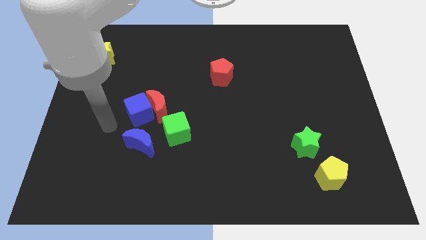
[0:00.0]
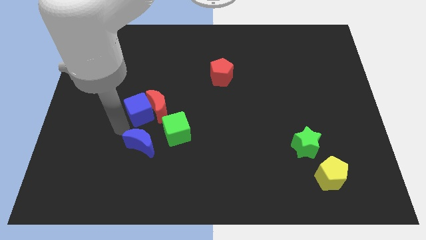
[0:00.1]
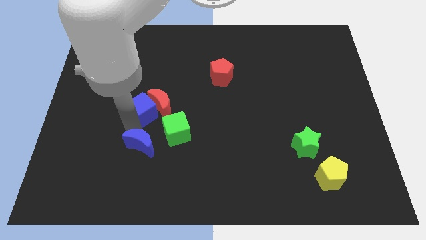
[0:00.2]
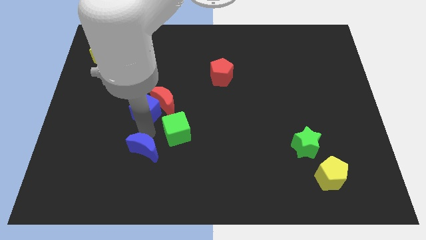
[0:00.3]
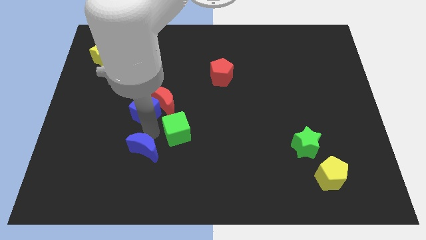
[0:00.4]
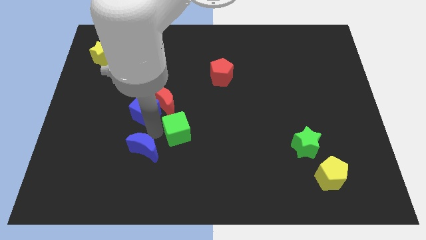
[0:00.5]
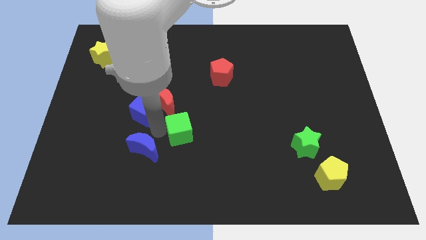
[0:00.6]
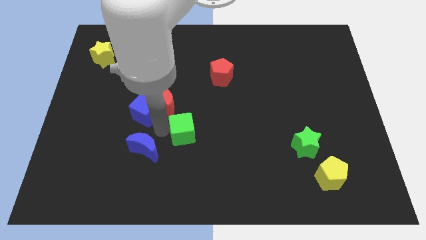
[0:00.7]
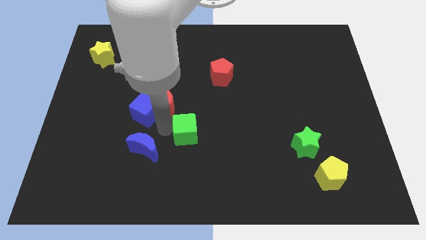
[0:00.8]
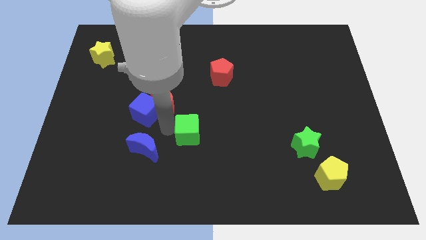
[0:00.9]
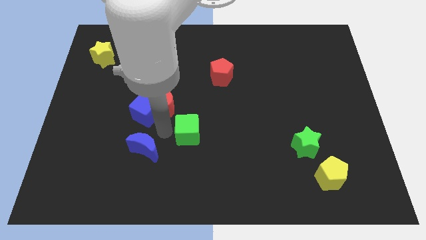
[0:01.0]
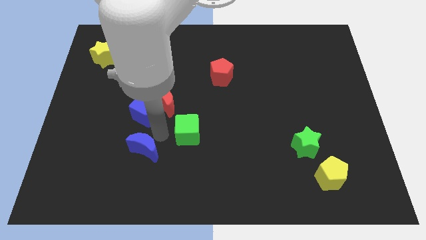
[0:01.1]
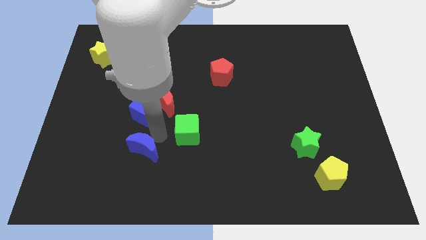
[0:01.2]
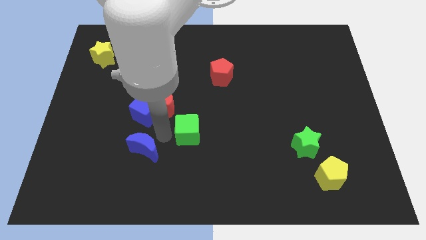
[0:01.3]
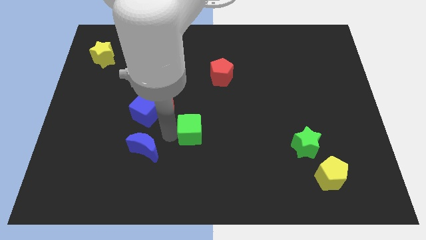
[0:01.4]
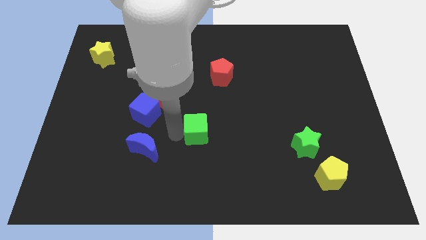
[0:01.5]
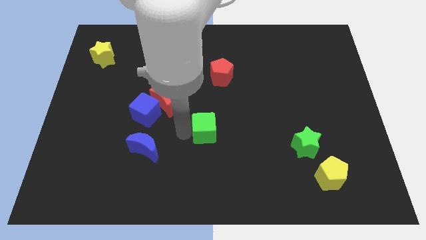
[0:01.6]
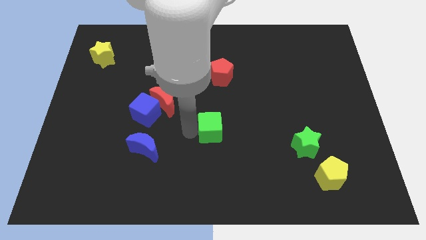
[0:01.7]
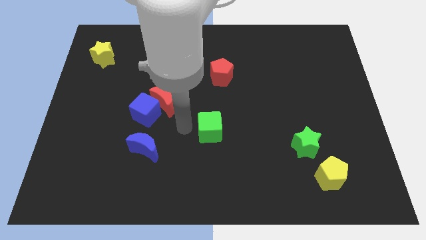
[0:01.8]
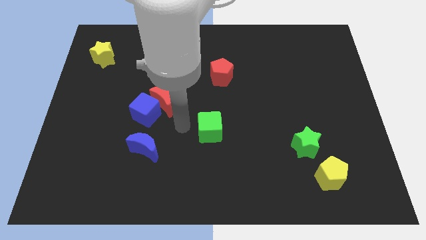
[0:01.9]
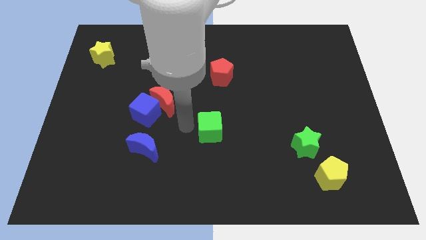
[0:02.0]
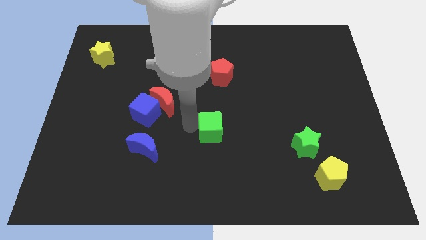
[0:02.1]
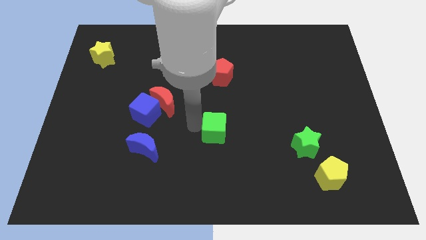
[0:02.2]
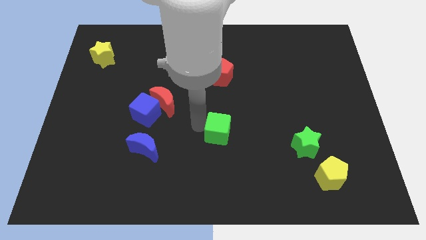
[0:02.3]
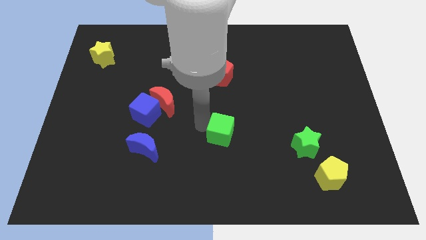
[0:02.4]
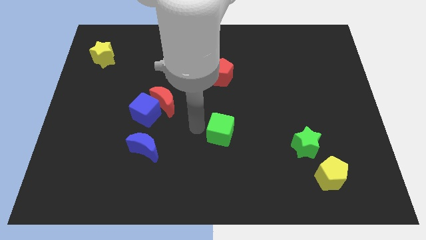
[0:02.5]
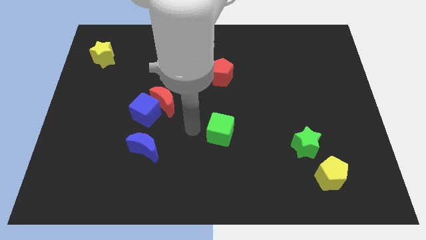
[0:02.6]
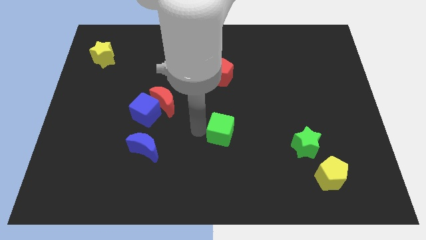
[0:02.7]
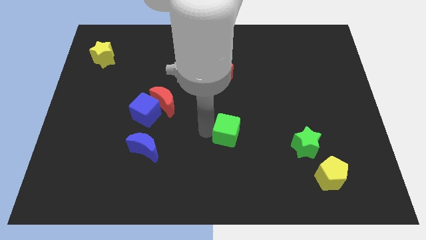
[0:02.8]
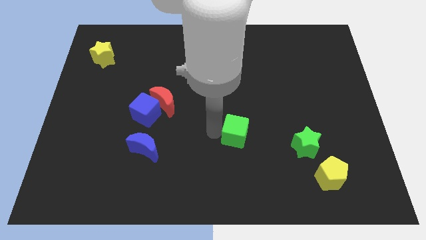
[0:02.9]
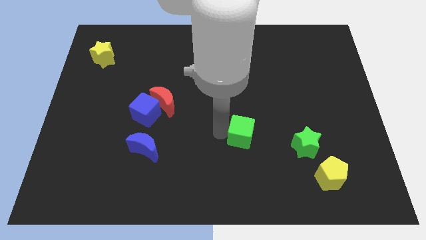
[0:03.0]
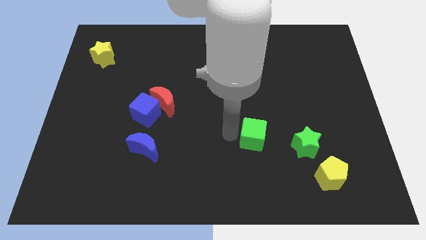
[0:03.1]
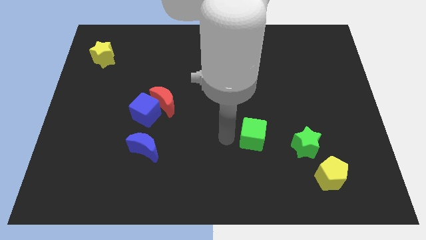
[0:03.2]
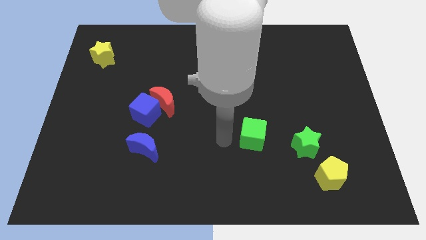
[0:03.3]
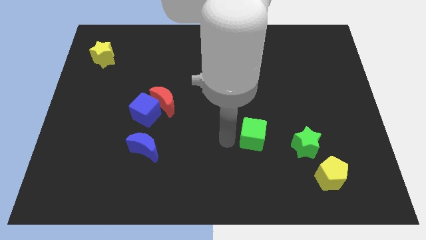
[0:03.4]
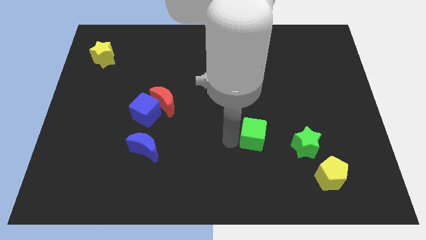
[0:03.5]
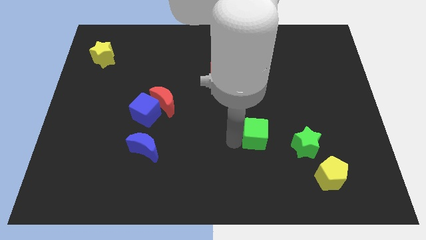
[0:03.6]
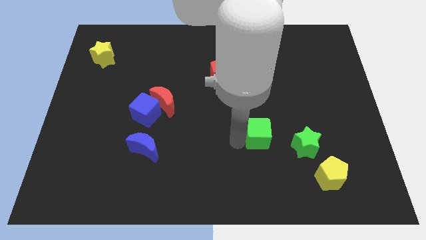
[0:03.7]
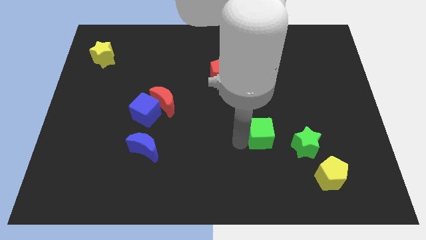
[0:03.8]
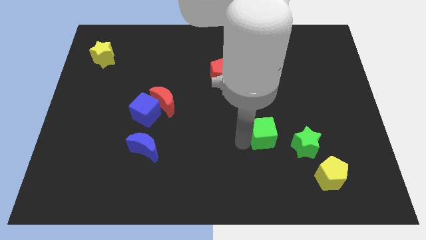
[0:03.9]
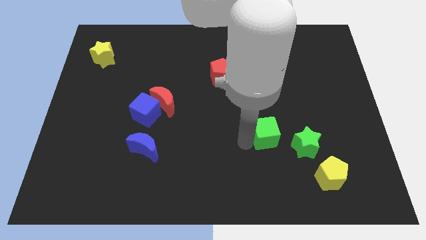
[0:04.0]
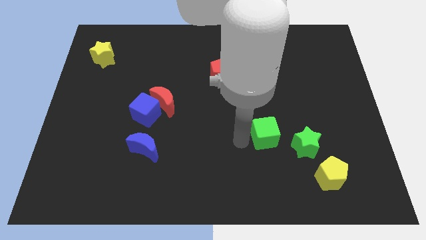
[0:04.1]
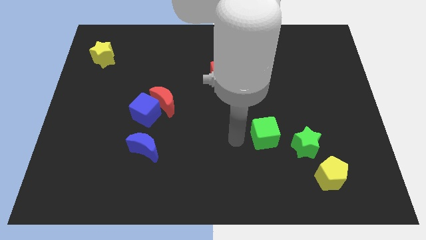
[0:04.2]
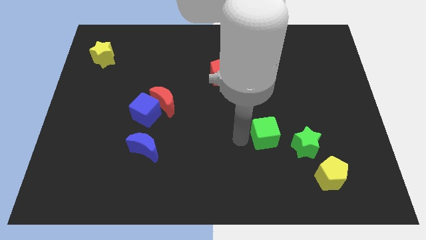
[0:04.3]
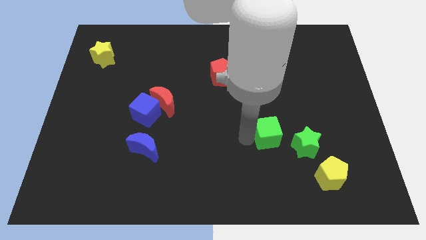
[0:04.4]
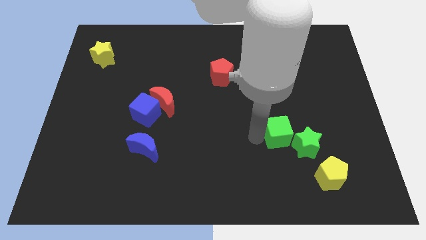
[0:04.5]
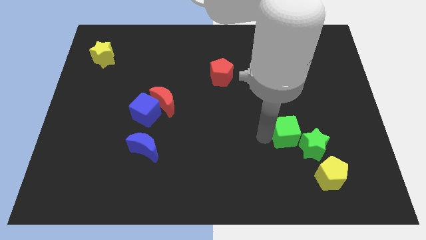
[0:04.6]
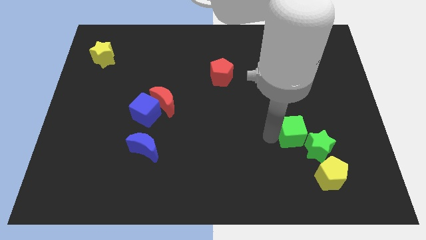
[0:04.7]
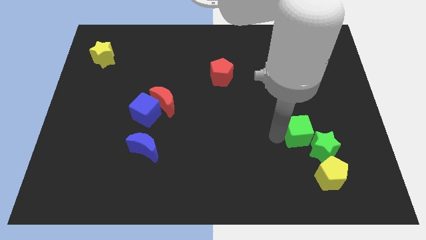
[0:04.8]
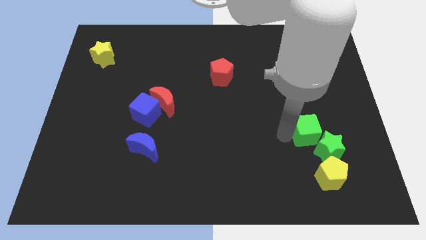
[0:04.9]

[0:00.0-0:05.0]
slide the green cube above the yellow pentagon

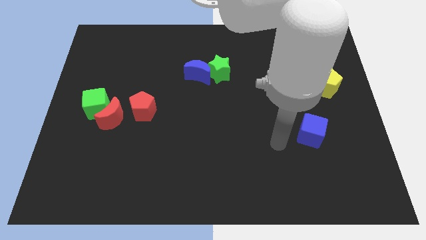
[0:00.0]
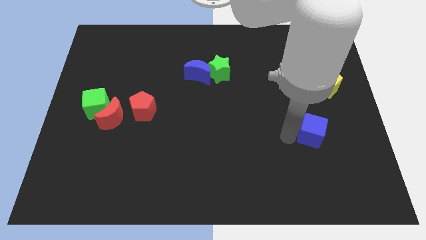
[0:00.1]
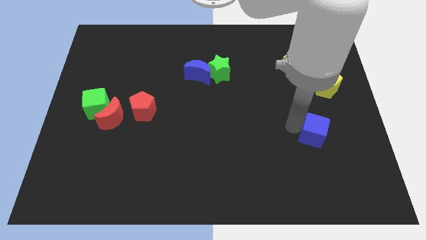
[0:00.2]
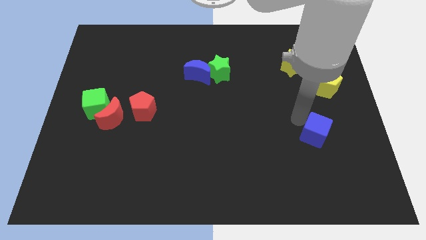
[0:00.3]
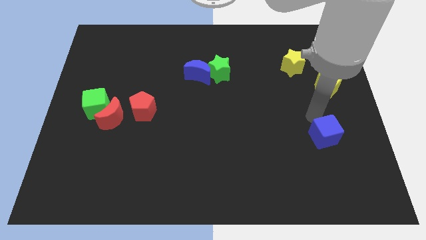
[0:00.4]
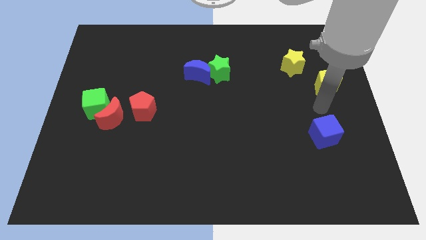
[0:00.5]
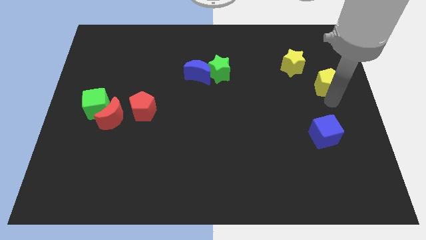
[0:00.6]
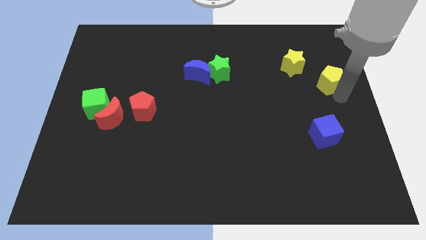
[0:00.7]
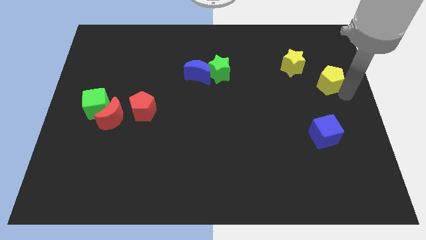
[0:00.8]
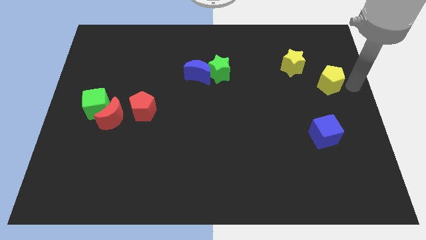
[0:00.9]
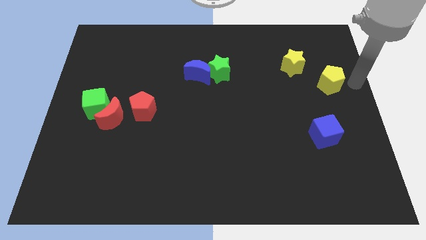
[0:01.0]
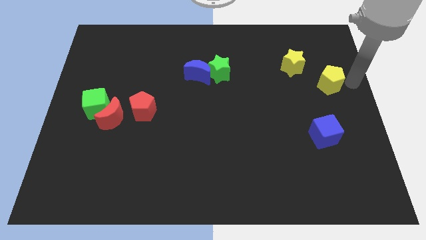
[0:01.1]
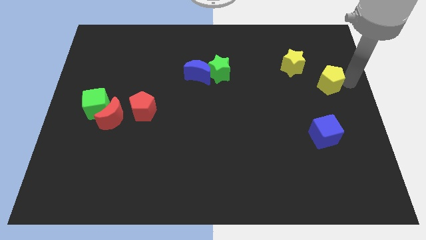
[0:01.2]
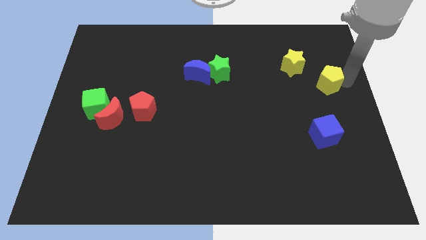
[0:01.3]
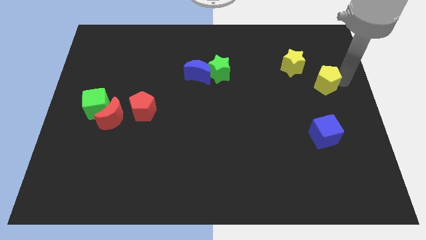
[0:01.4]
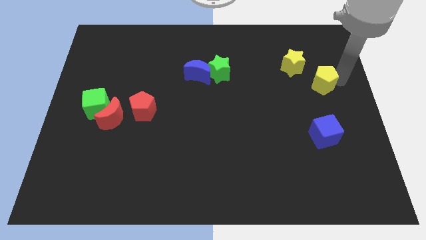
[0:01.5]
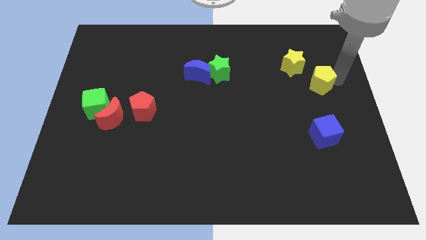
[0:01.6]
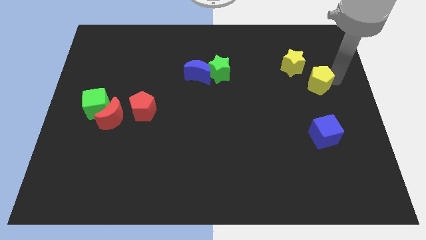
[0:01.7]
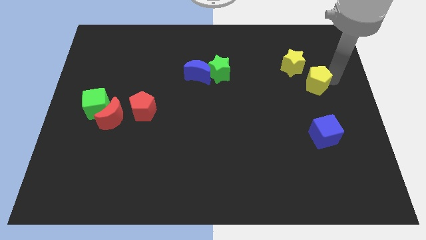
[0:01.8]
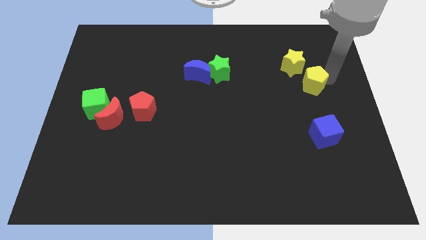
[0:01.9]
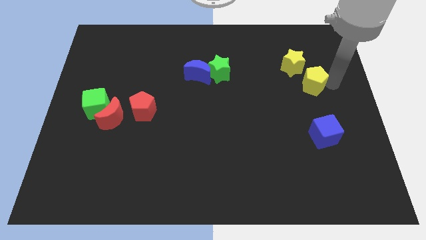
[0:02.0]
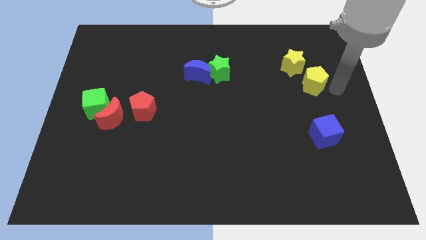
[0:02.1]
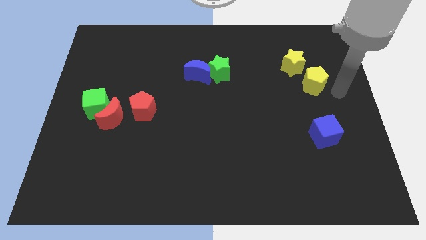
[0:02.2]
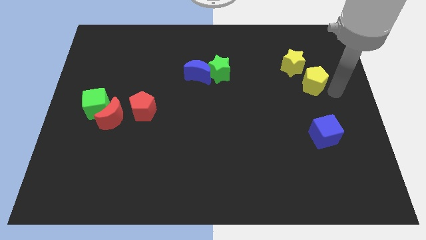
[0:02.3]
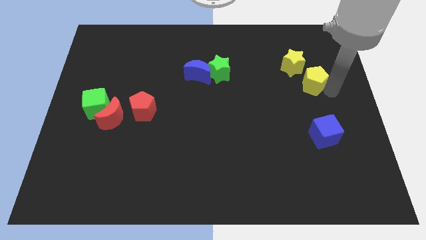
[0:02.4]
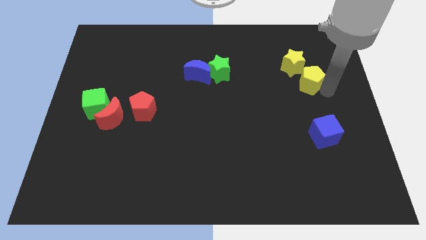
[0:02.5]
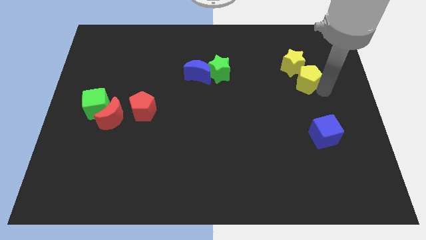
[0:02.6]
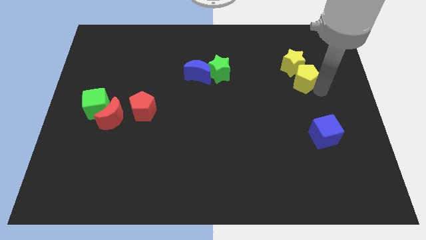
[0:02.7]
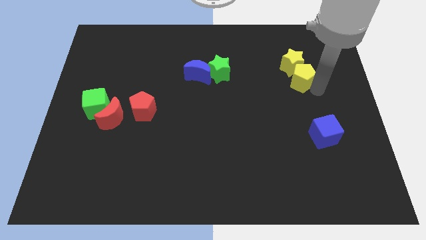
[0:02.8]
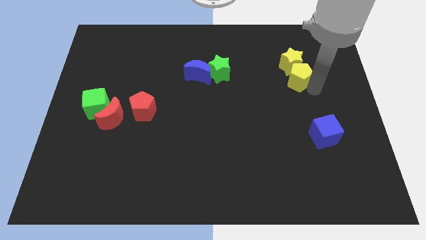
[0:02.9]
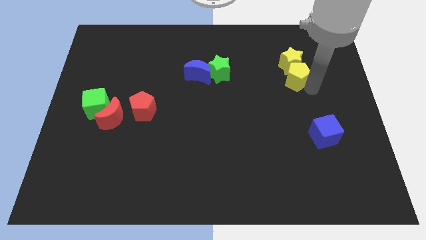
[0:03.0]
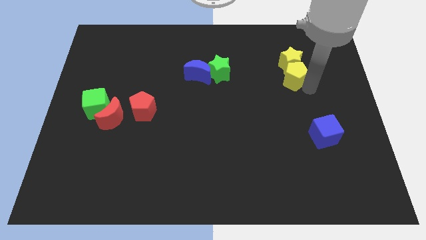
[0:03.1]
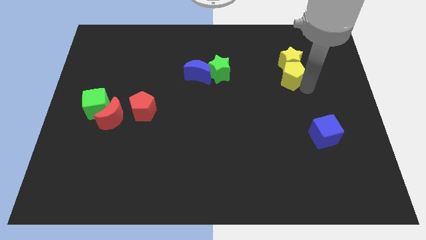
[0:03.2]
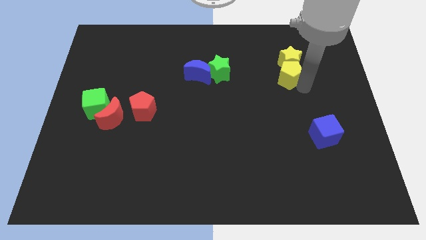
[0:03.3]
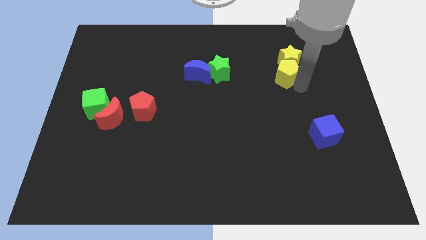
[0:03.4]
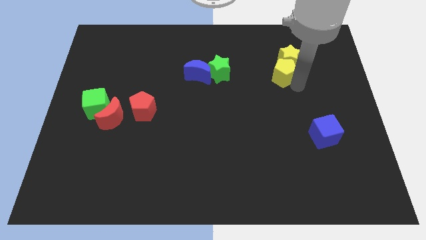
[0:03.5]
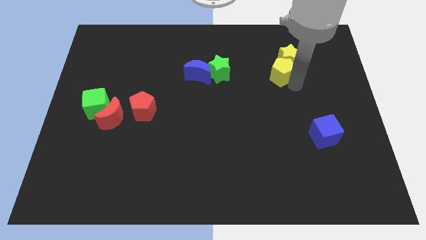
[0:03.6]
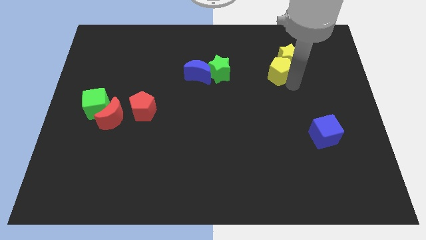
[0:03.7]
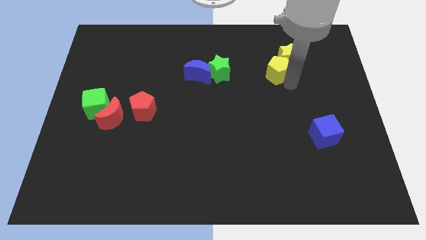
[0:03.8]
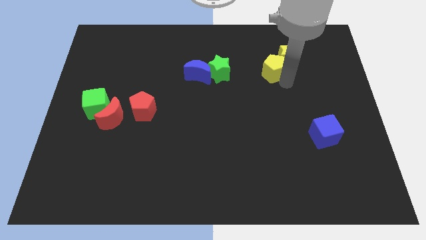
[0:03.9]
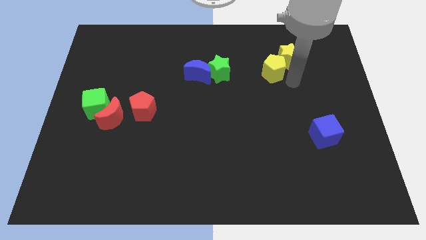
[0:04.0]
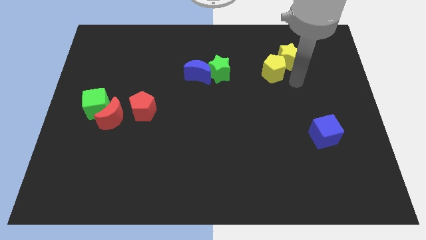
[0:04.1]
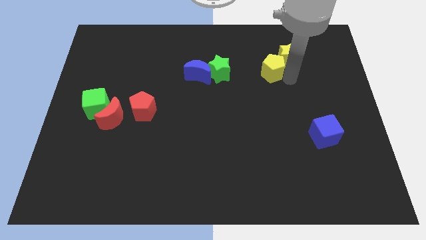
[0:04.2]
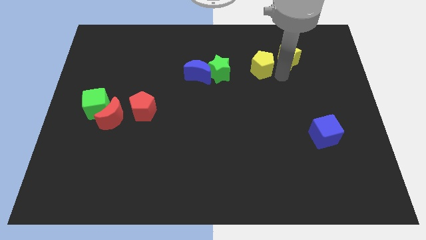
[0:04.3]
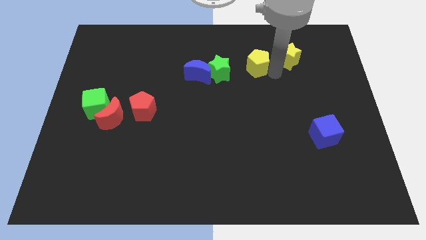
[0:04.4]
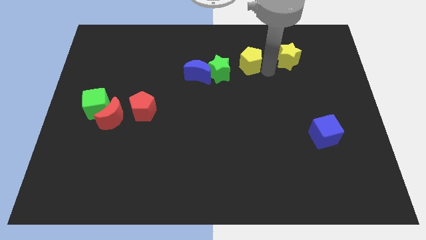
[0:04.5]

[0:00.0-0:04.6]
move the yellow pentagon to the top right of the green star
